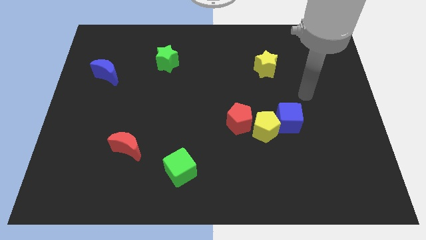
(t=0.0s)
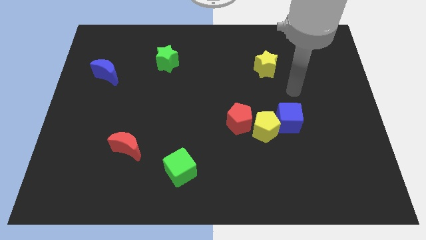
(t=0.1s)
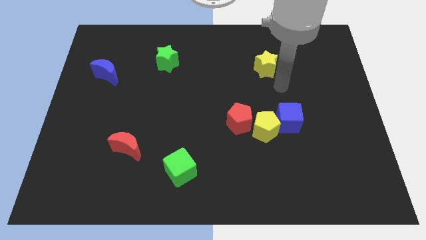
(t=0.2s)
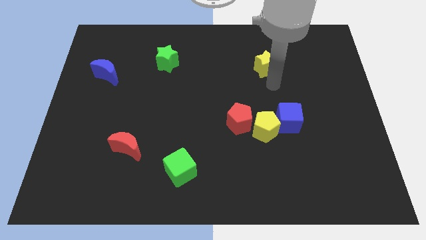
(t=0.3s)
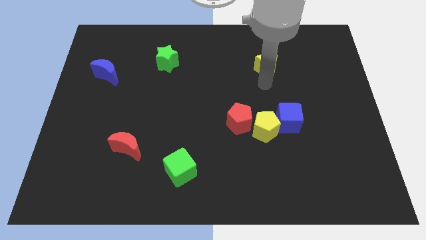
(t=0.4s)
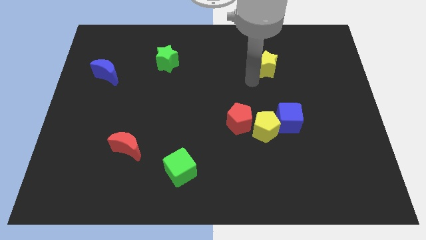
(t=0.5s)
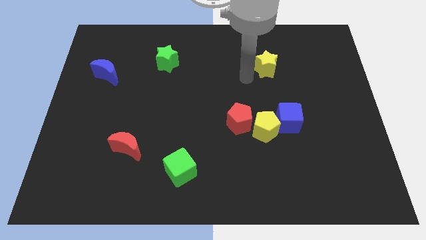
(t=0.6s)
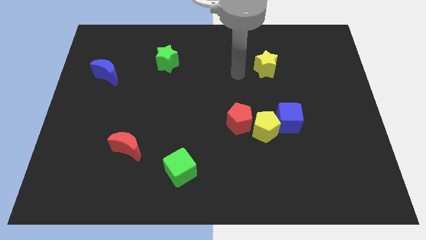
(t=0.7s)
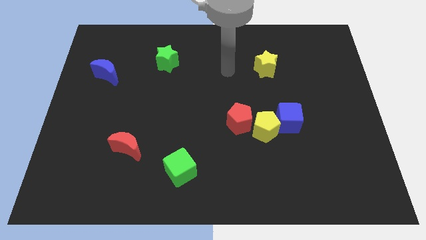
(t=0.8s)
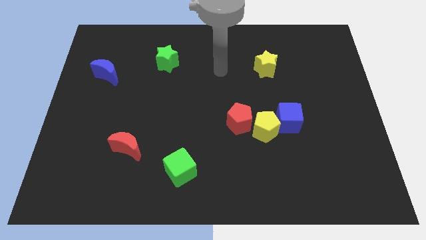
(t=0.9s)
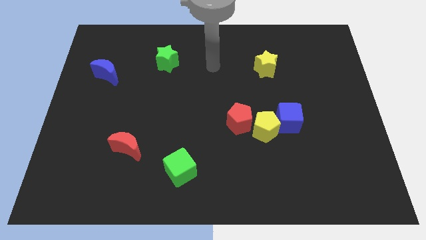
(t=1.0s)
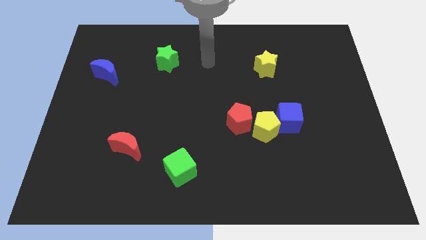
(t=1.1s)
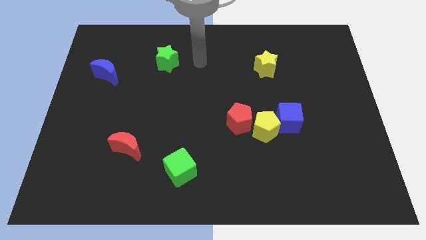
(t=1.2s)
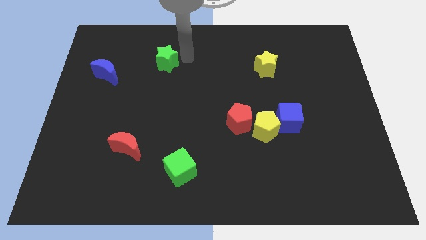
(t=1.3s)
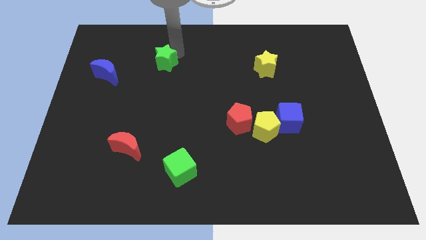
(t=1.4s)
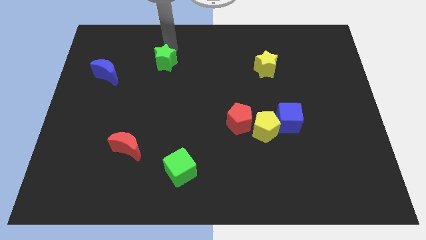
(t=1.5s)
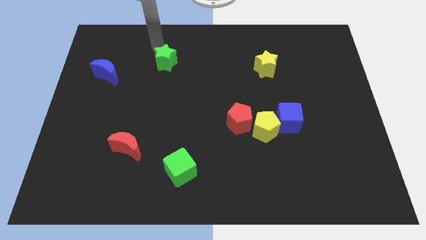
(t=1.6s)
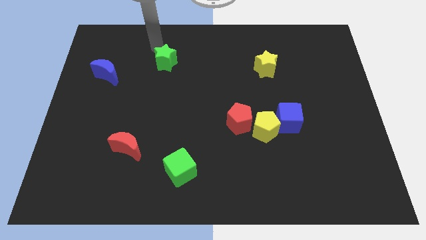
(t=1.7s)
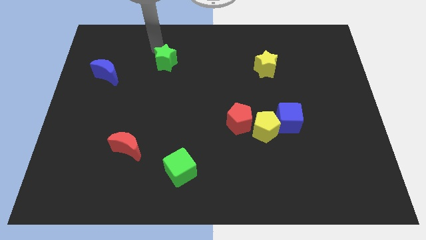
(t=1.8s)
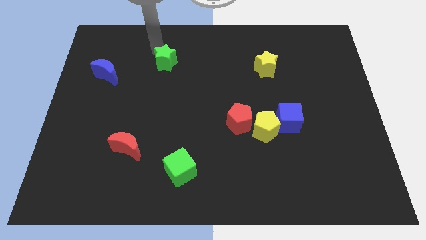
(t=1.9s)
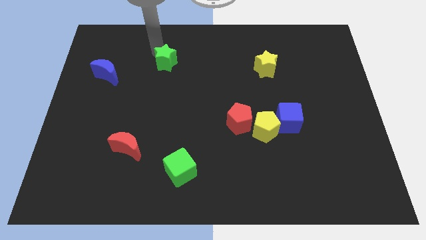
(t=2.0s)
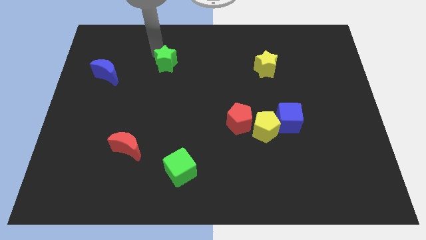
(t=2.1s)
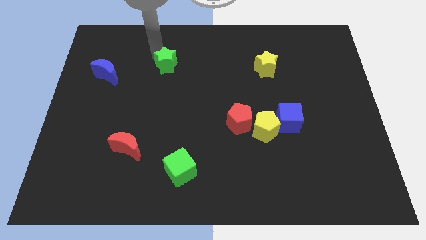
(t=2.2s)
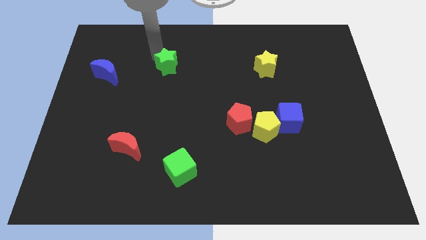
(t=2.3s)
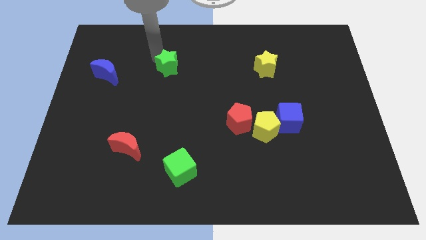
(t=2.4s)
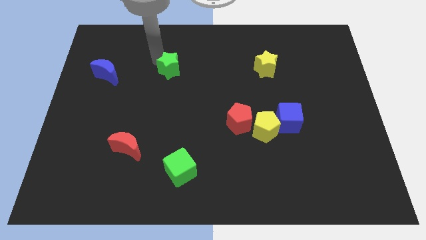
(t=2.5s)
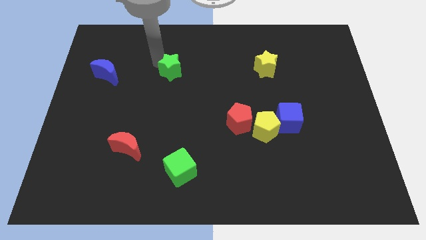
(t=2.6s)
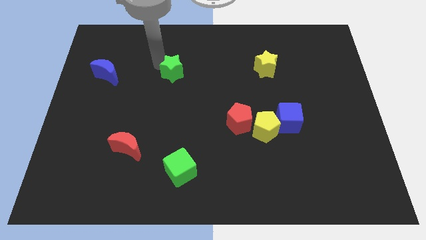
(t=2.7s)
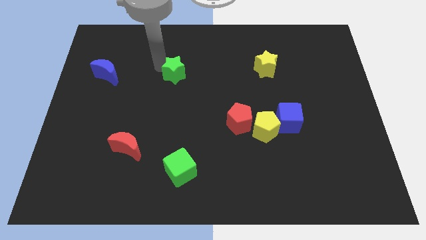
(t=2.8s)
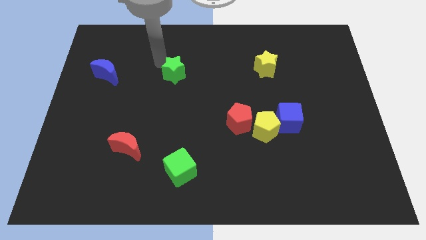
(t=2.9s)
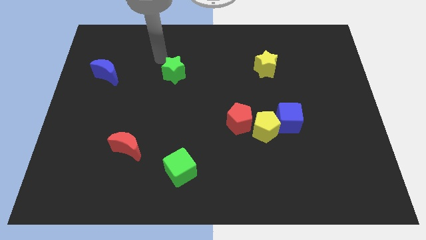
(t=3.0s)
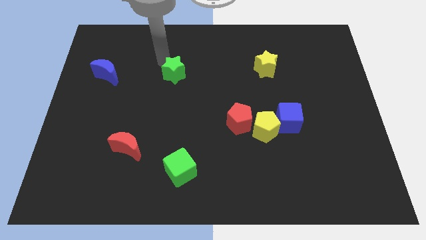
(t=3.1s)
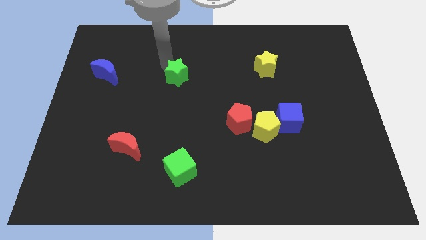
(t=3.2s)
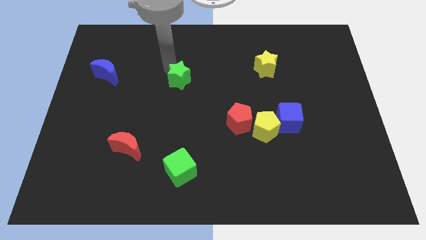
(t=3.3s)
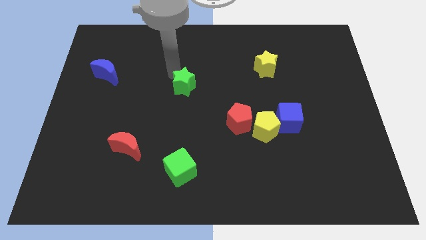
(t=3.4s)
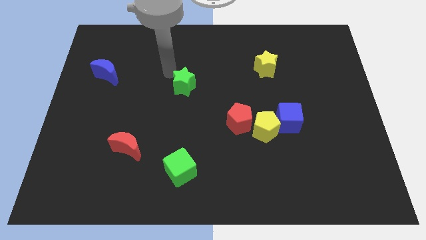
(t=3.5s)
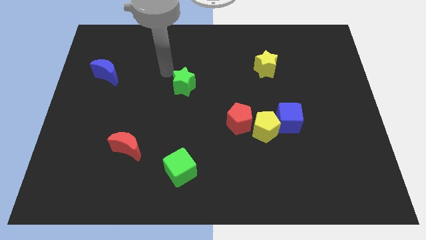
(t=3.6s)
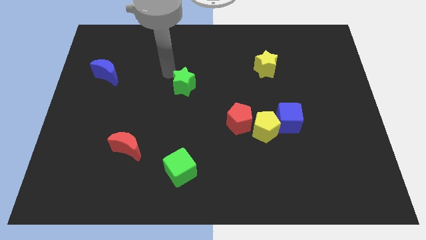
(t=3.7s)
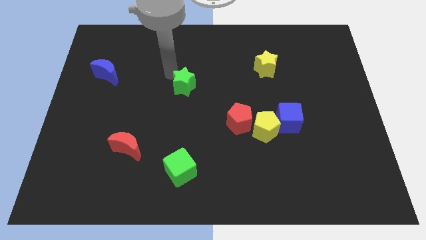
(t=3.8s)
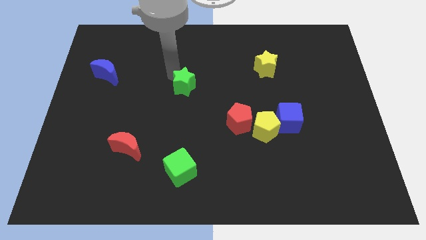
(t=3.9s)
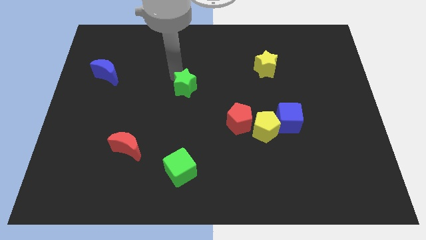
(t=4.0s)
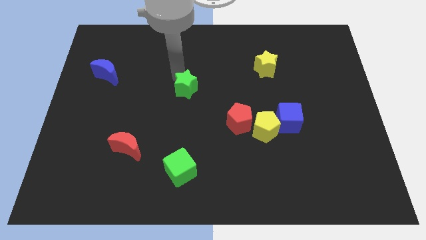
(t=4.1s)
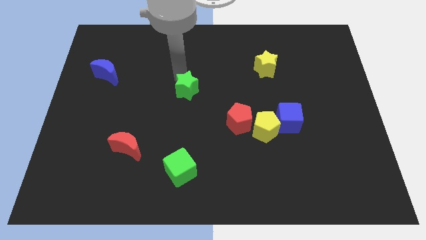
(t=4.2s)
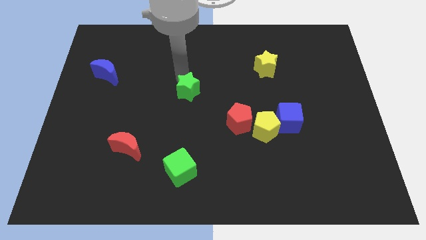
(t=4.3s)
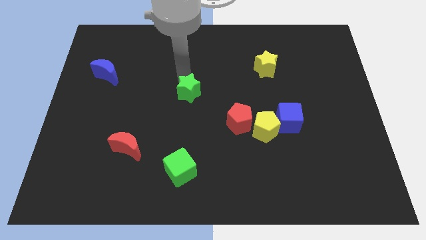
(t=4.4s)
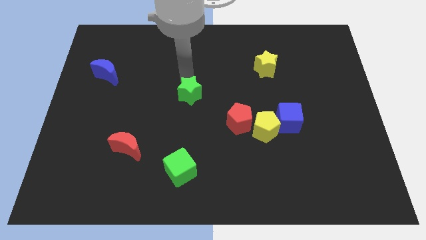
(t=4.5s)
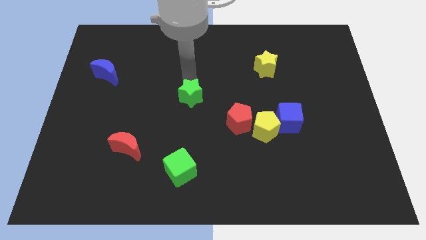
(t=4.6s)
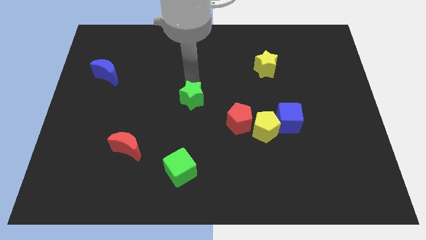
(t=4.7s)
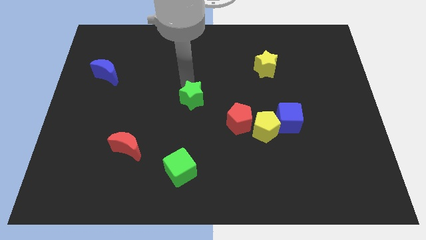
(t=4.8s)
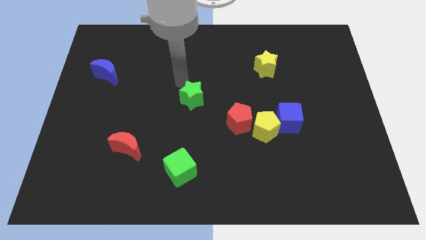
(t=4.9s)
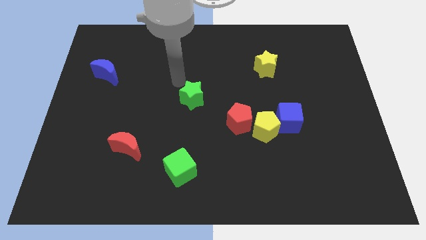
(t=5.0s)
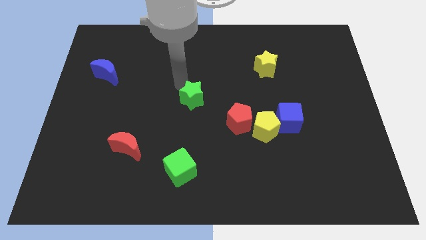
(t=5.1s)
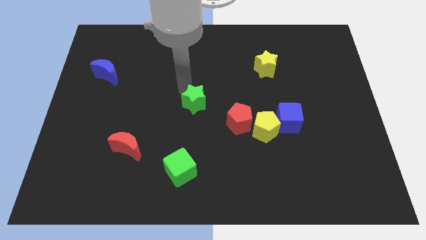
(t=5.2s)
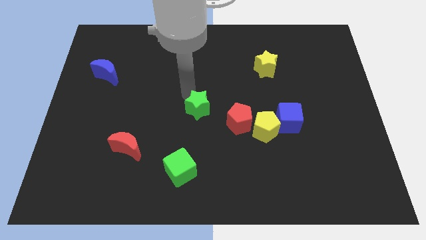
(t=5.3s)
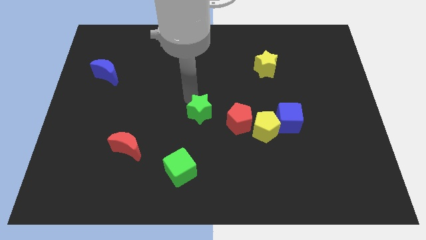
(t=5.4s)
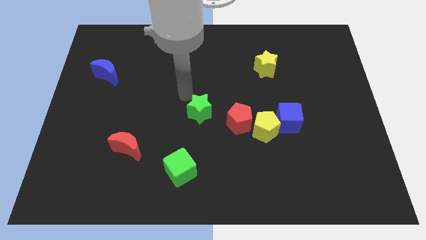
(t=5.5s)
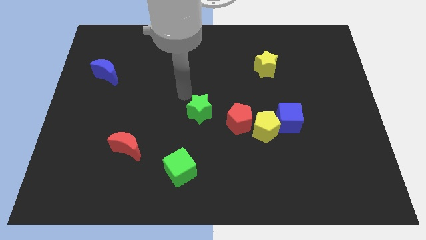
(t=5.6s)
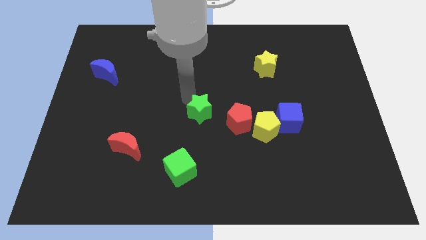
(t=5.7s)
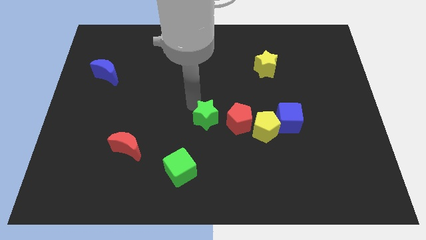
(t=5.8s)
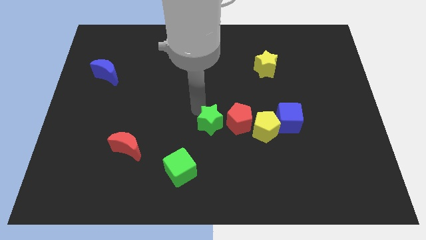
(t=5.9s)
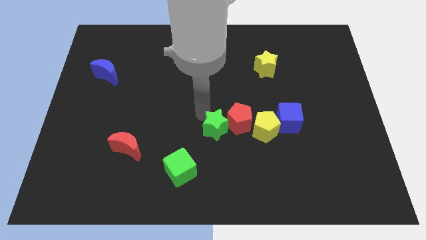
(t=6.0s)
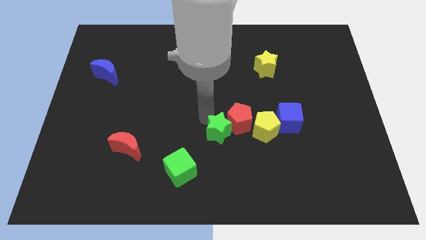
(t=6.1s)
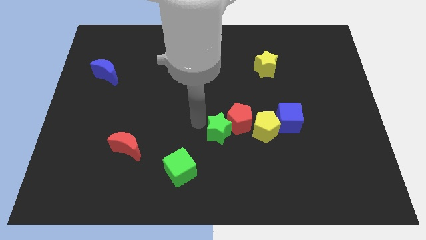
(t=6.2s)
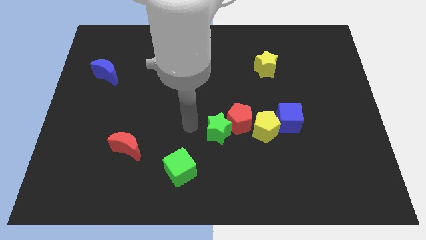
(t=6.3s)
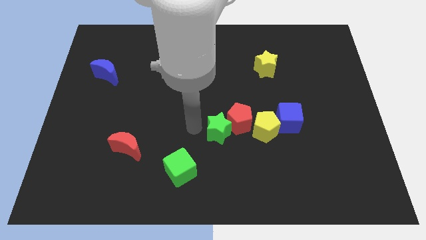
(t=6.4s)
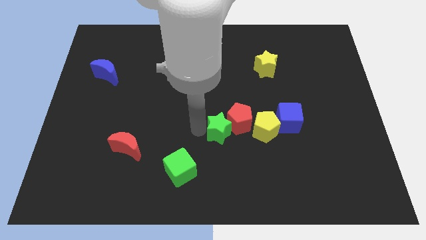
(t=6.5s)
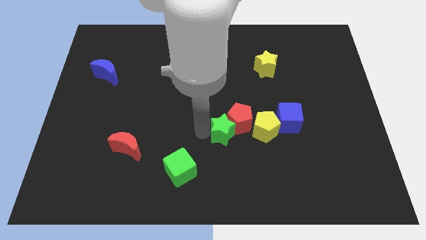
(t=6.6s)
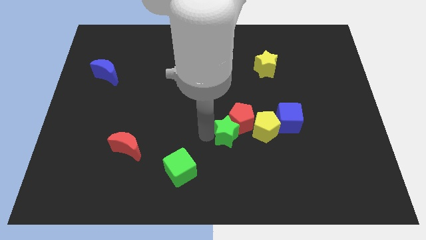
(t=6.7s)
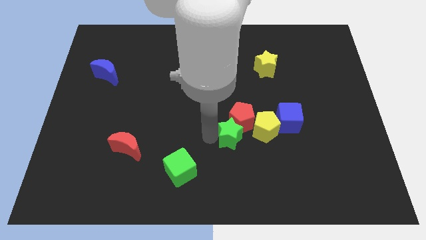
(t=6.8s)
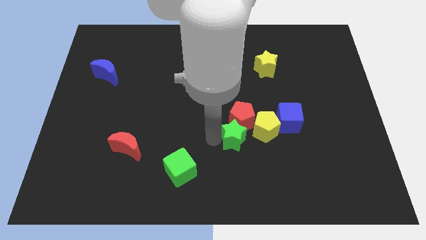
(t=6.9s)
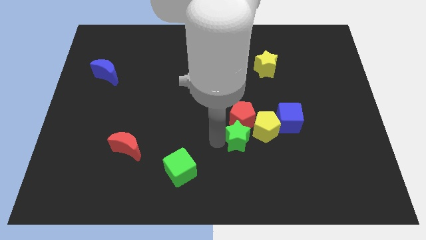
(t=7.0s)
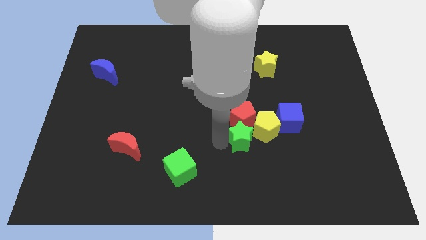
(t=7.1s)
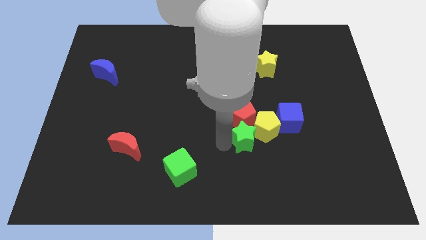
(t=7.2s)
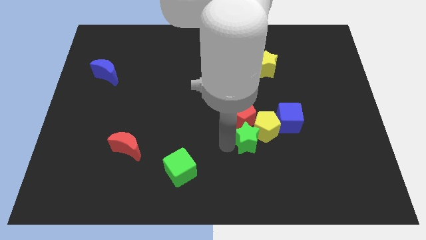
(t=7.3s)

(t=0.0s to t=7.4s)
slide the green star to the bottom left of the blue cube
